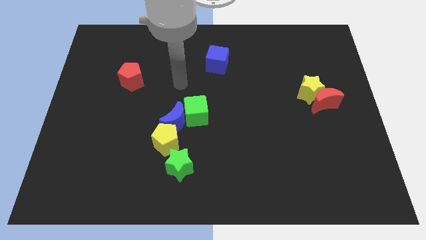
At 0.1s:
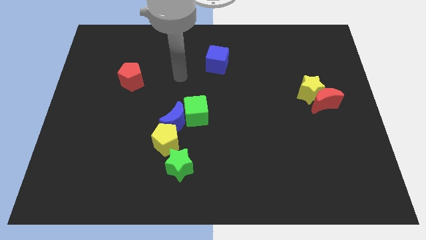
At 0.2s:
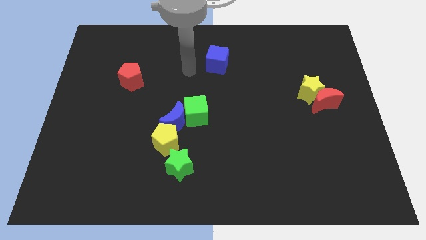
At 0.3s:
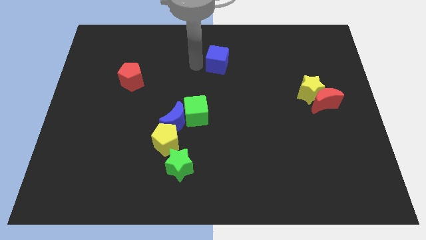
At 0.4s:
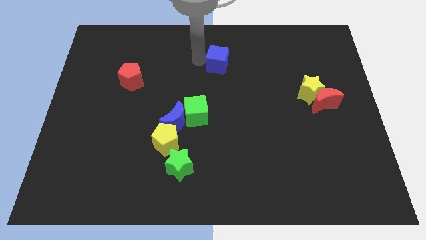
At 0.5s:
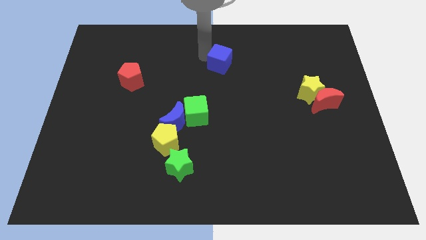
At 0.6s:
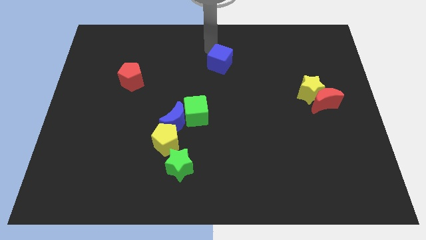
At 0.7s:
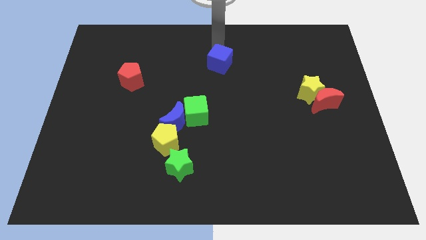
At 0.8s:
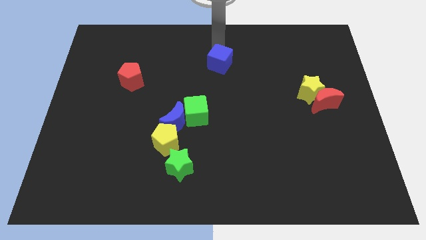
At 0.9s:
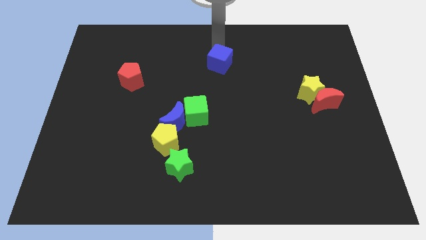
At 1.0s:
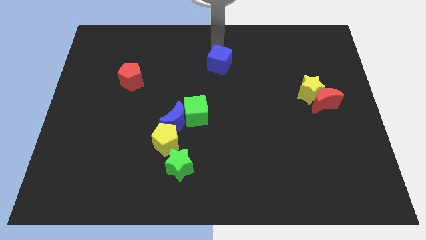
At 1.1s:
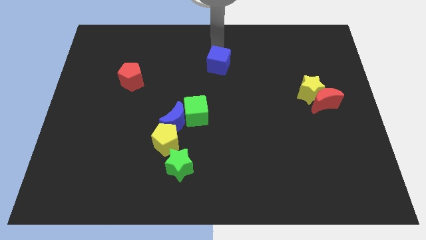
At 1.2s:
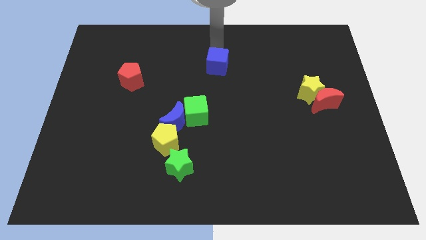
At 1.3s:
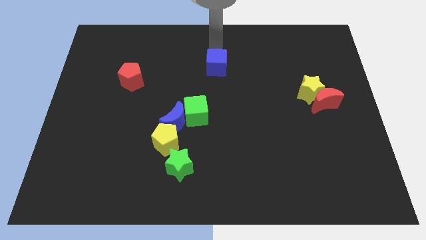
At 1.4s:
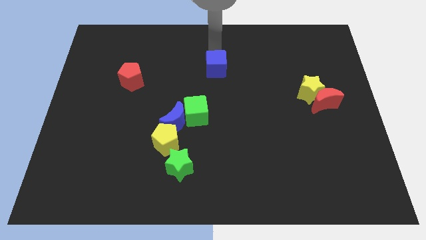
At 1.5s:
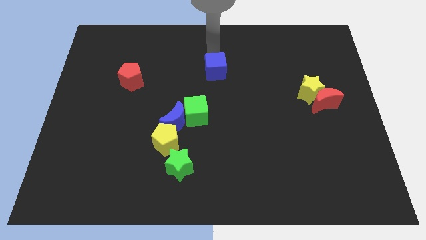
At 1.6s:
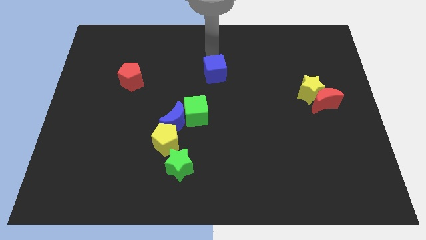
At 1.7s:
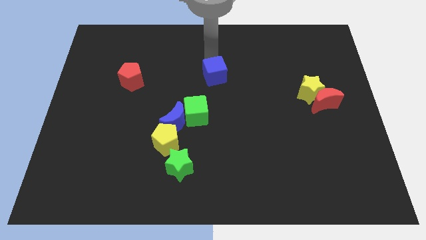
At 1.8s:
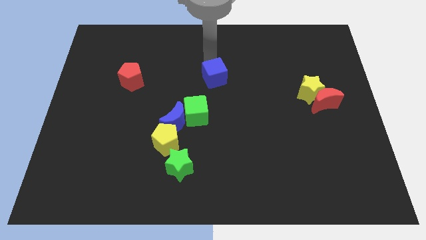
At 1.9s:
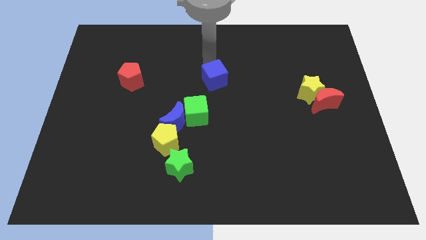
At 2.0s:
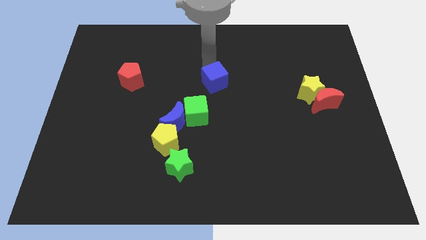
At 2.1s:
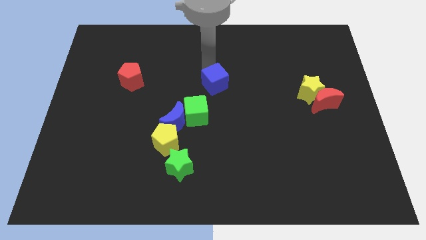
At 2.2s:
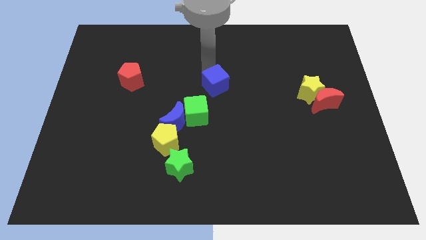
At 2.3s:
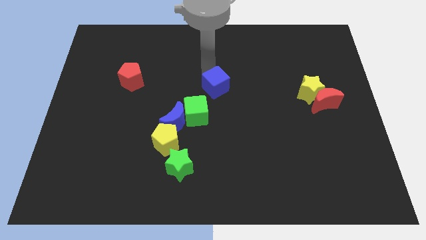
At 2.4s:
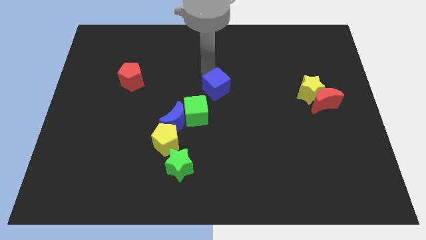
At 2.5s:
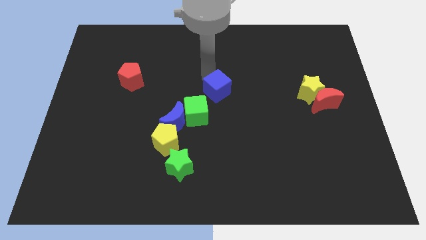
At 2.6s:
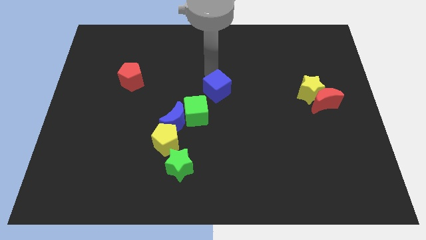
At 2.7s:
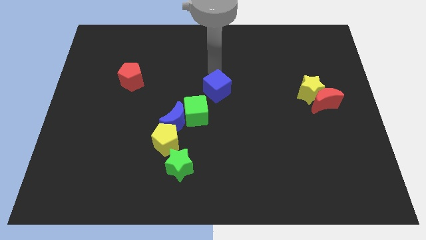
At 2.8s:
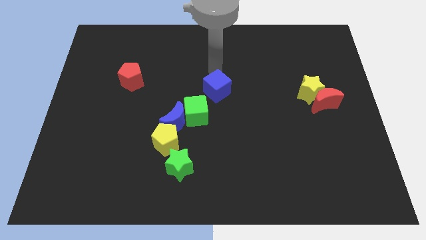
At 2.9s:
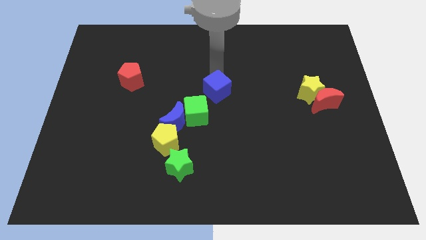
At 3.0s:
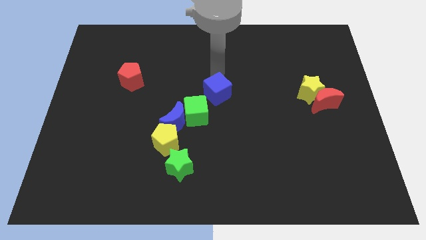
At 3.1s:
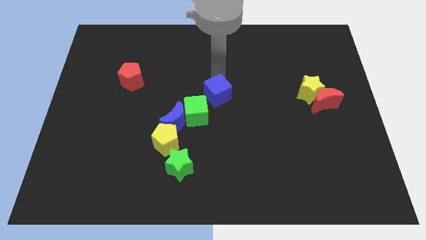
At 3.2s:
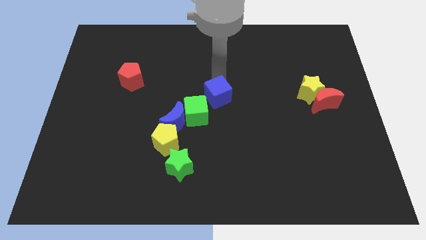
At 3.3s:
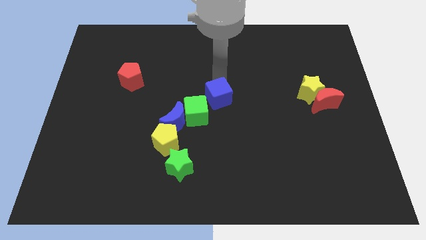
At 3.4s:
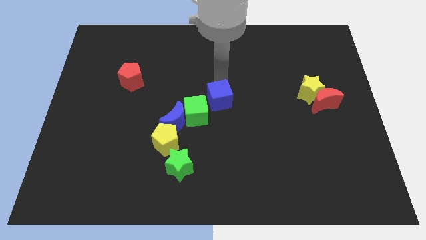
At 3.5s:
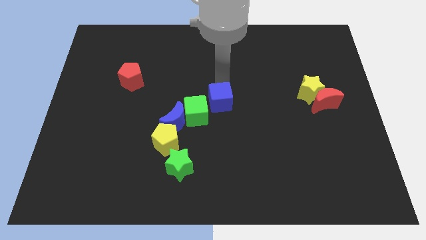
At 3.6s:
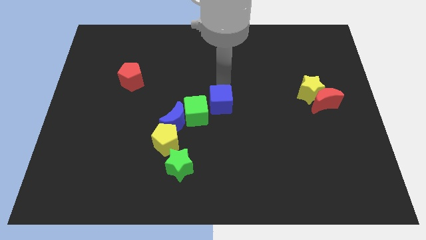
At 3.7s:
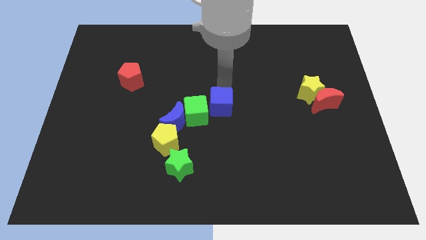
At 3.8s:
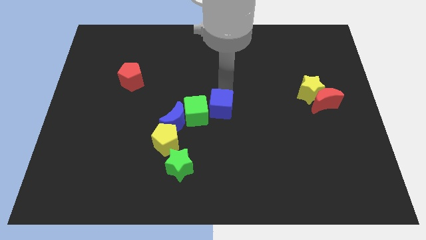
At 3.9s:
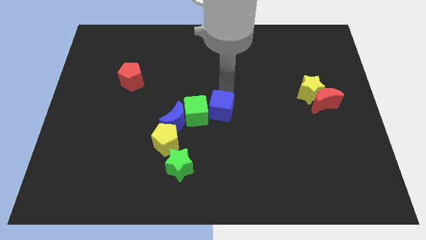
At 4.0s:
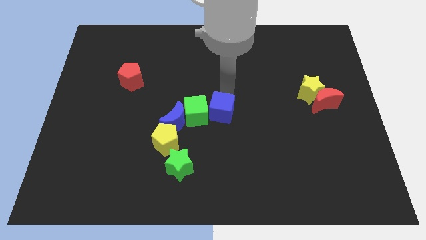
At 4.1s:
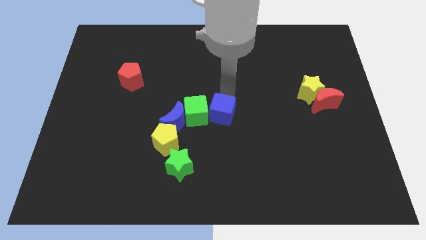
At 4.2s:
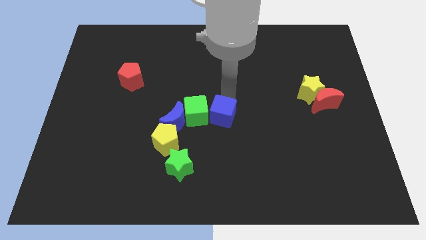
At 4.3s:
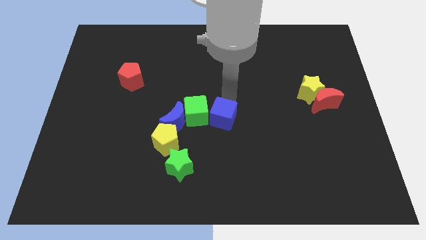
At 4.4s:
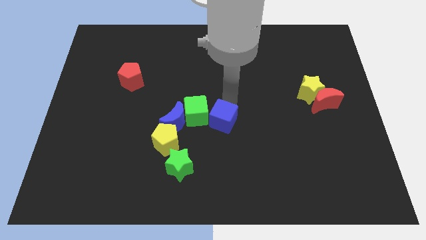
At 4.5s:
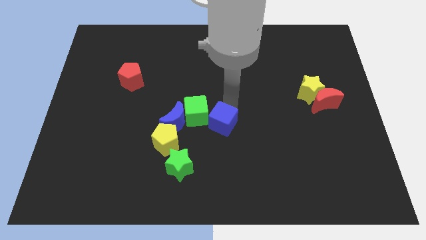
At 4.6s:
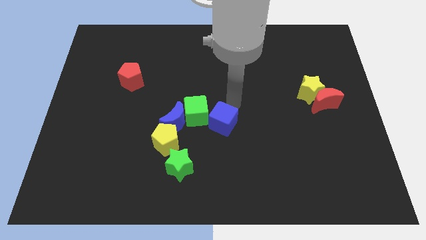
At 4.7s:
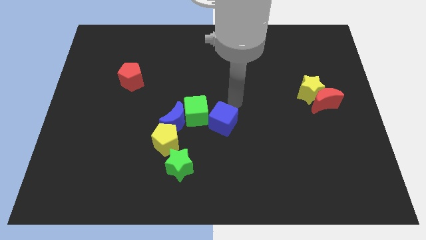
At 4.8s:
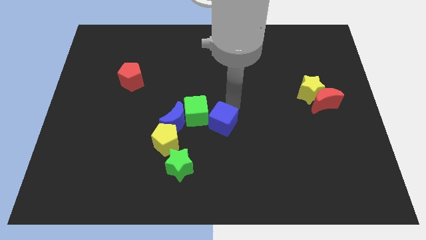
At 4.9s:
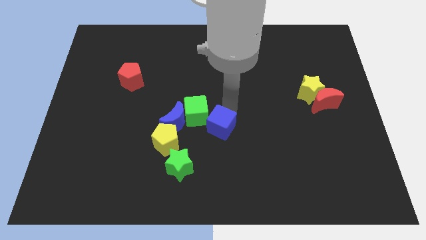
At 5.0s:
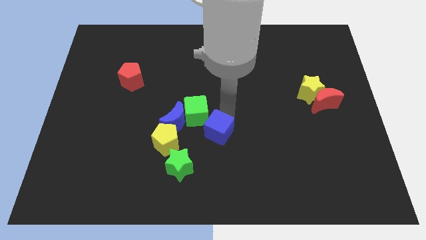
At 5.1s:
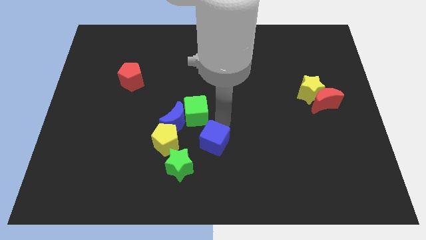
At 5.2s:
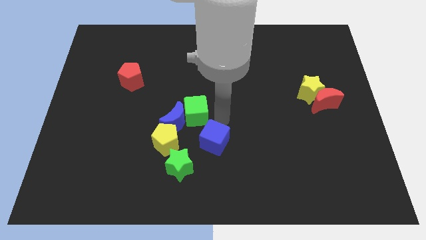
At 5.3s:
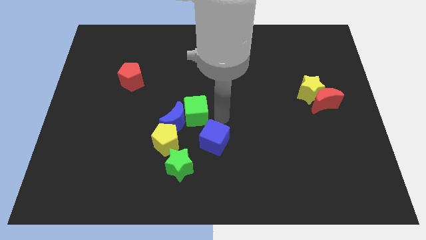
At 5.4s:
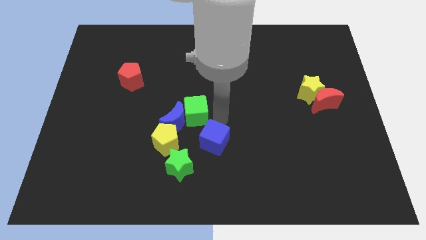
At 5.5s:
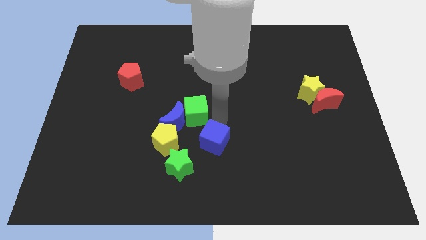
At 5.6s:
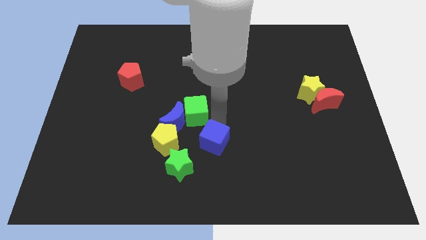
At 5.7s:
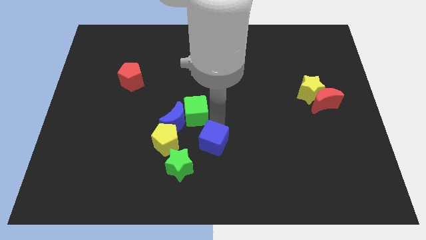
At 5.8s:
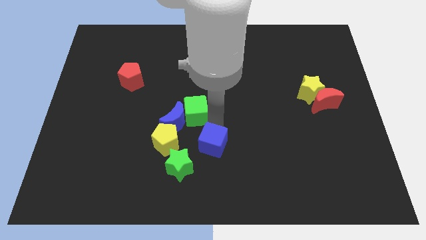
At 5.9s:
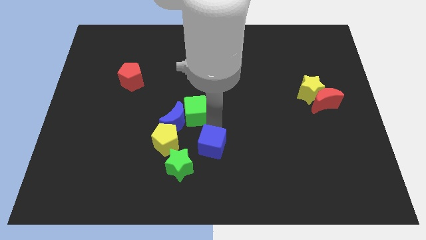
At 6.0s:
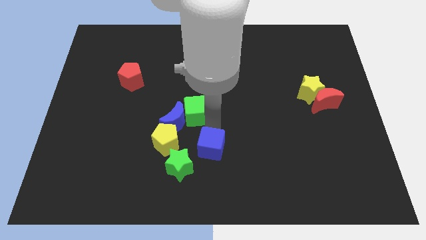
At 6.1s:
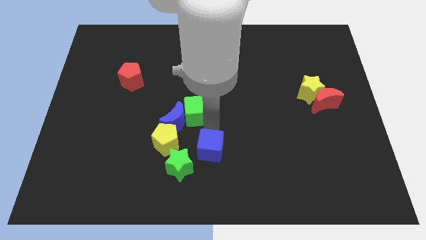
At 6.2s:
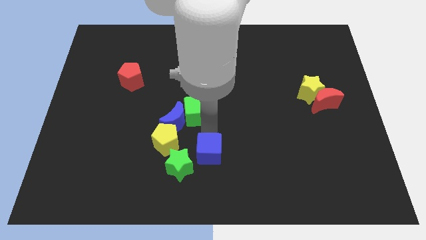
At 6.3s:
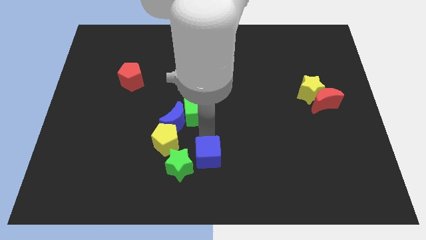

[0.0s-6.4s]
push the blue cube to the bottom side
